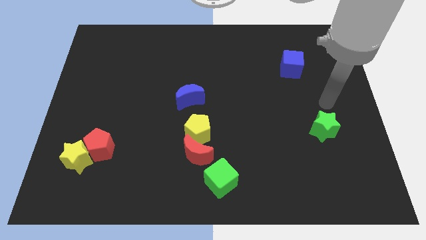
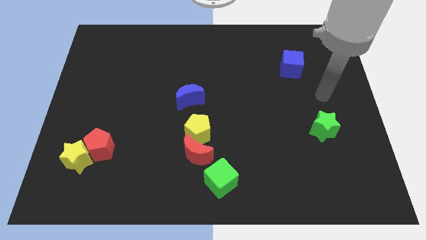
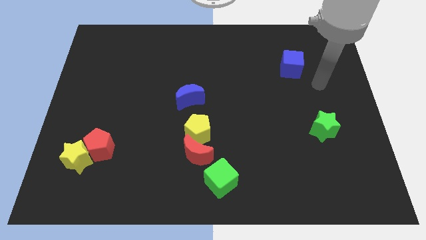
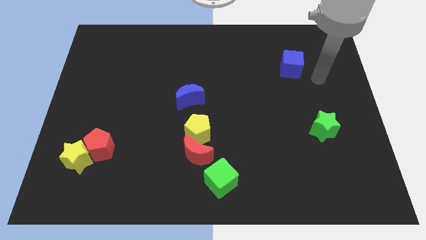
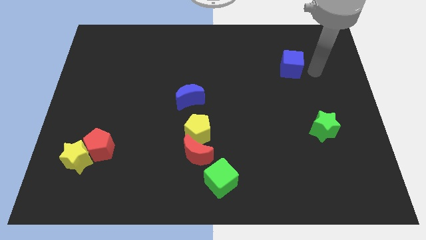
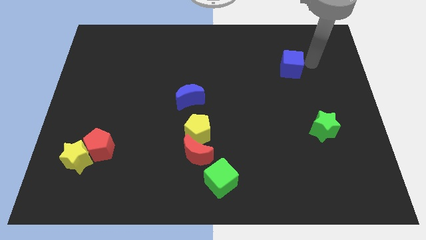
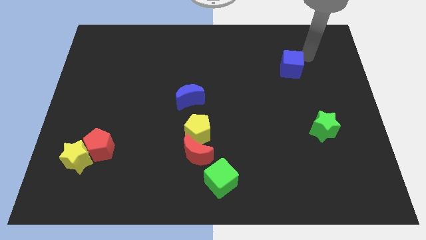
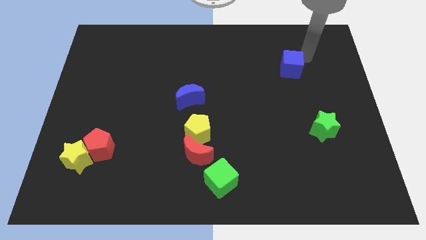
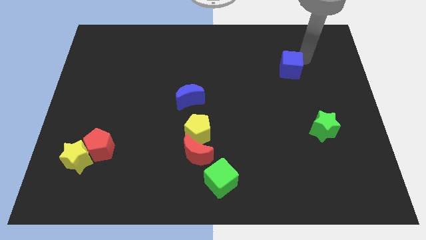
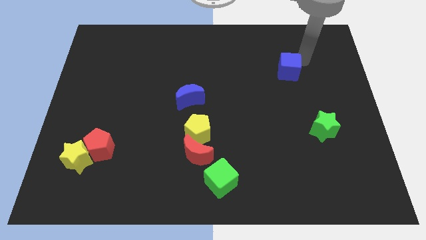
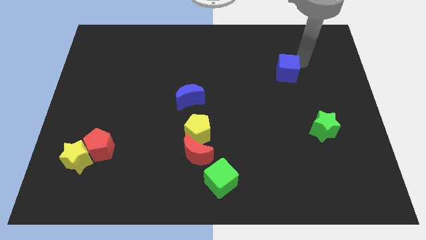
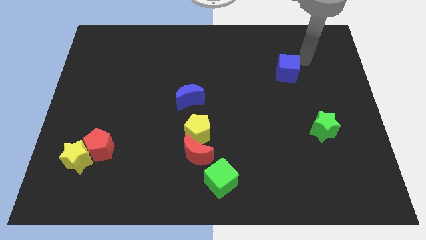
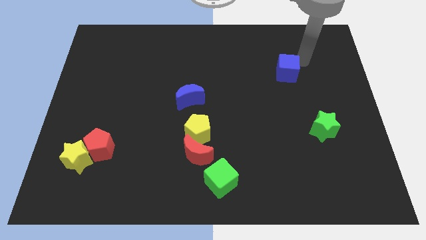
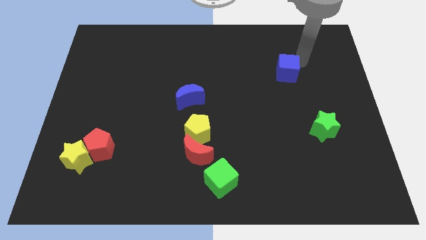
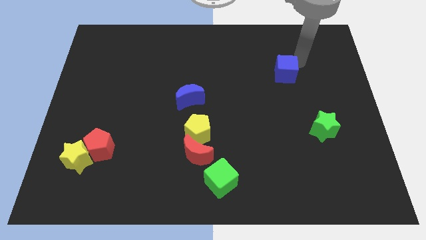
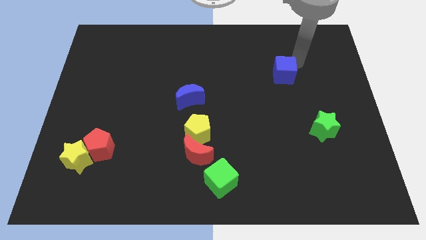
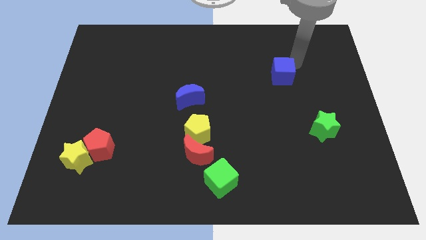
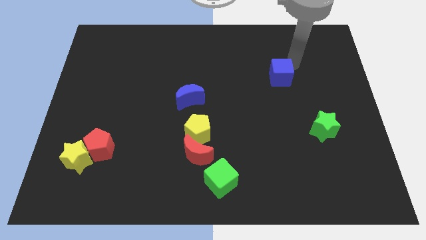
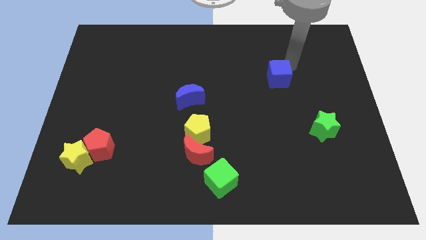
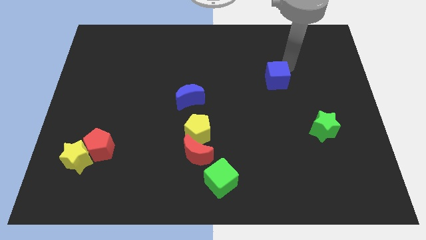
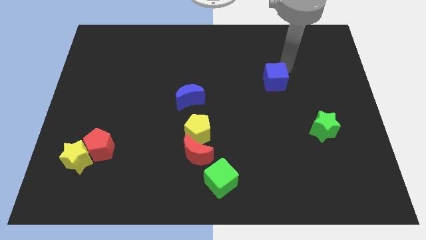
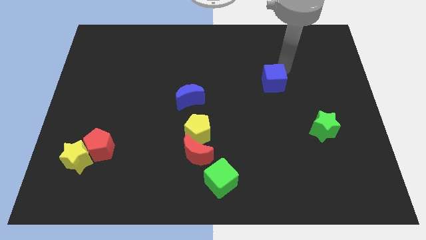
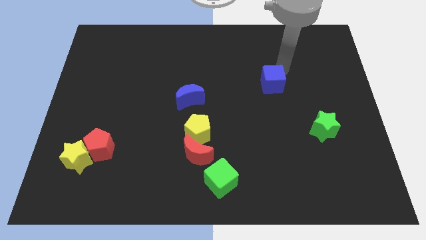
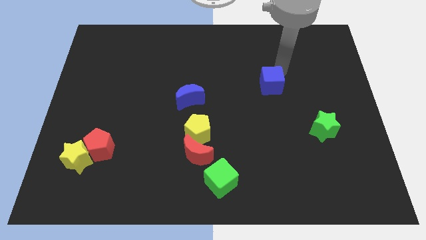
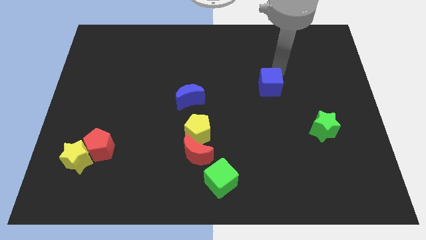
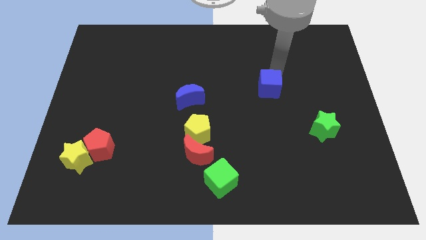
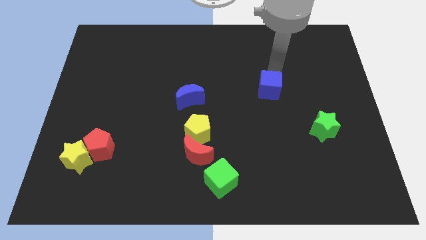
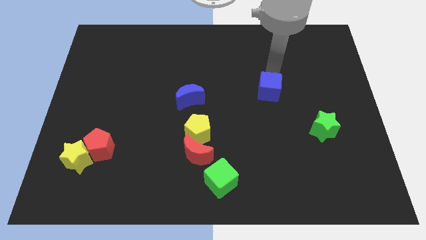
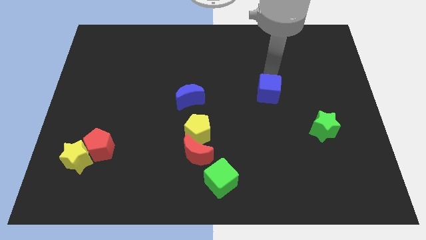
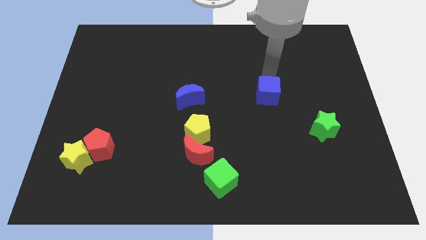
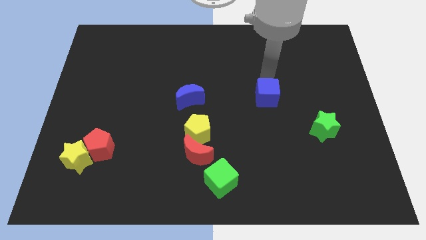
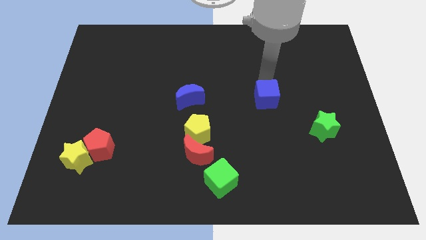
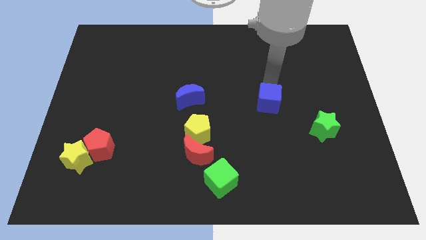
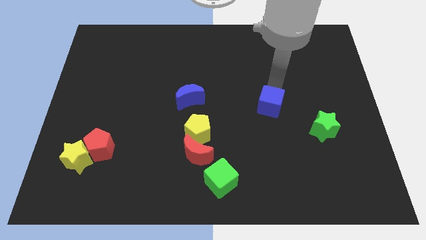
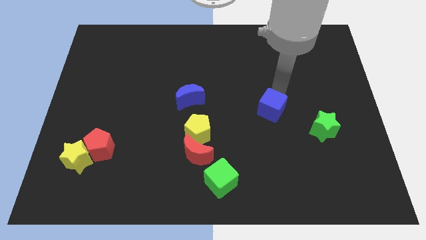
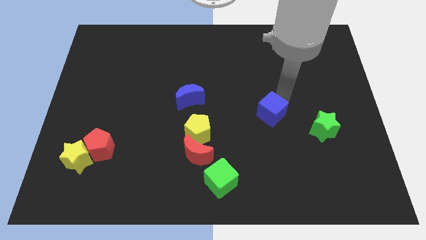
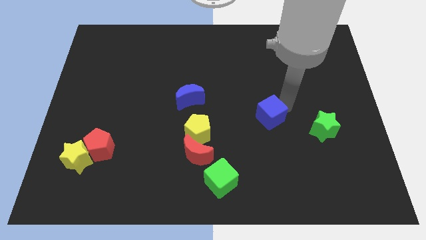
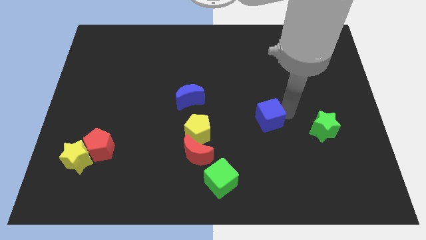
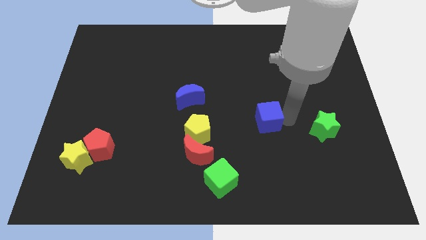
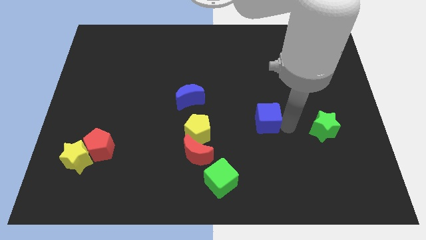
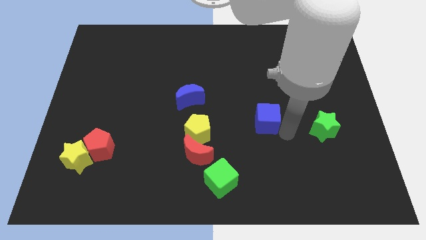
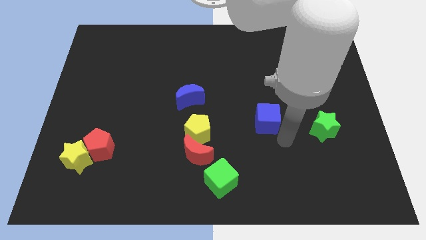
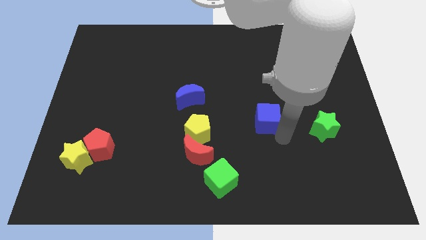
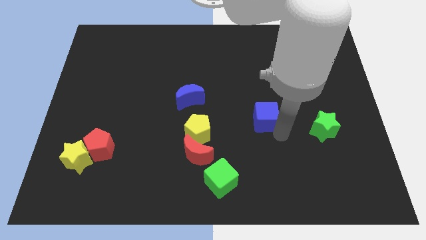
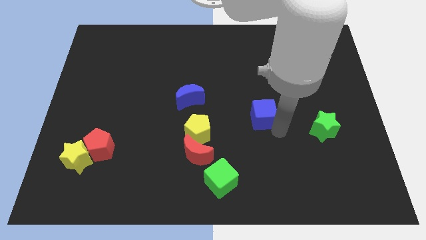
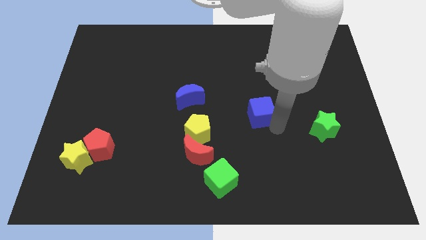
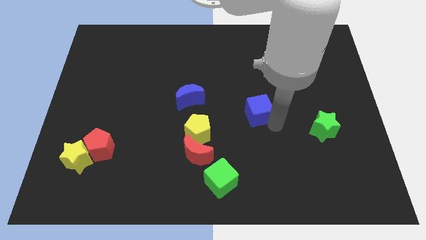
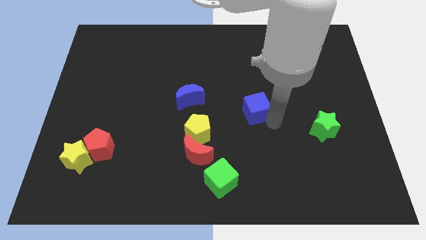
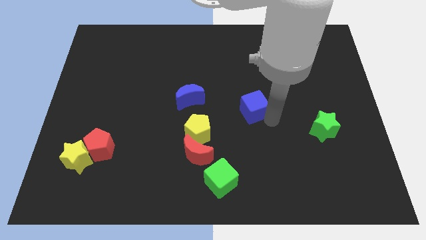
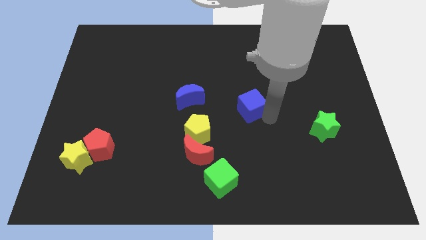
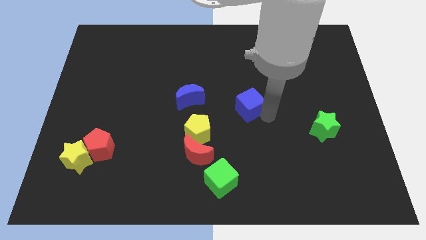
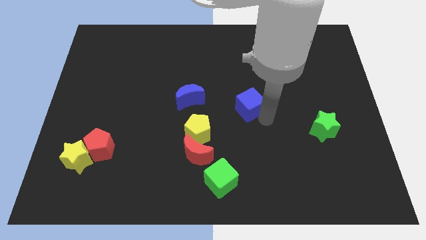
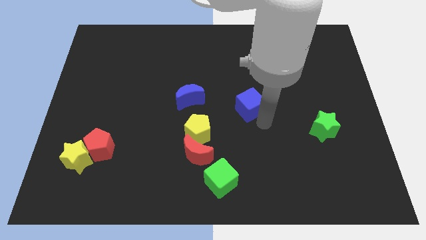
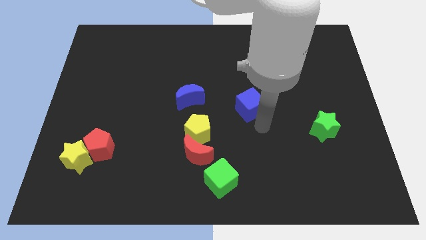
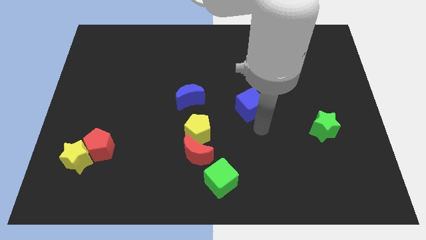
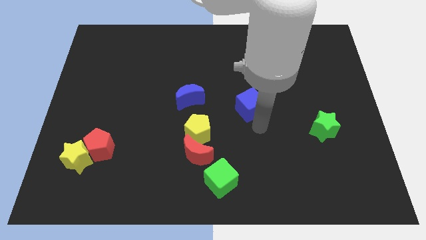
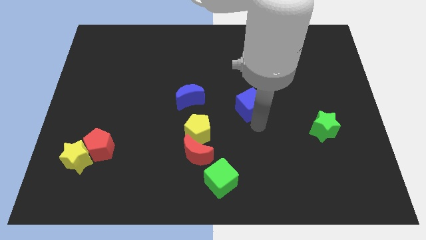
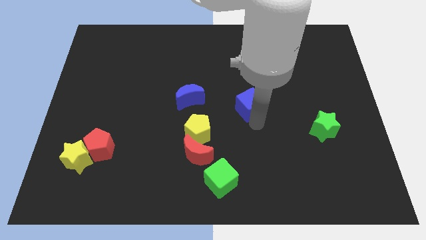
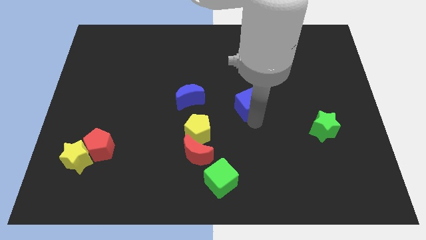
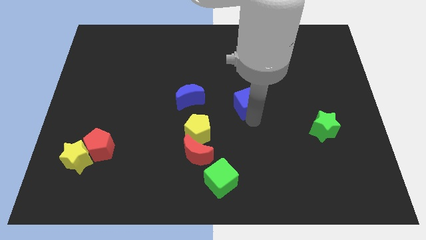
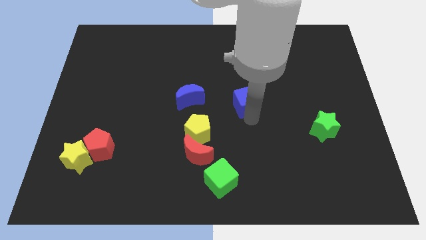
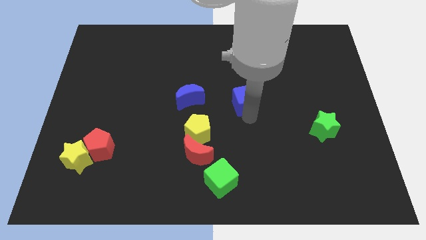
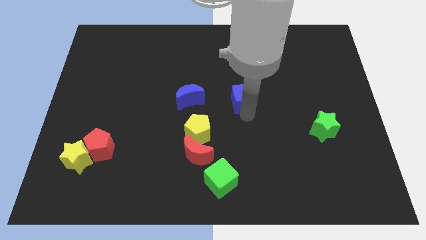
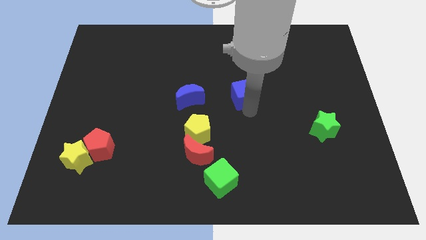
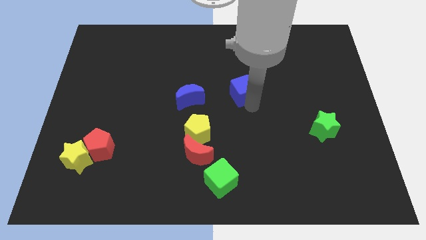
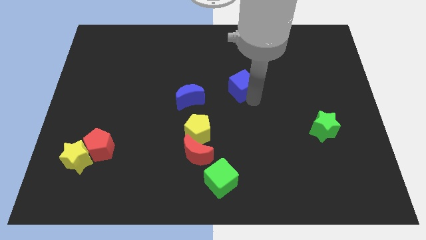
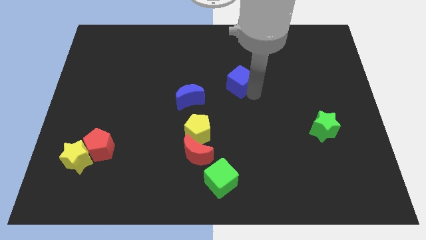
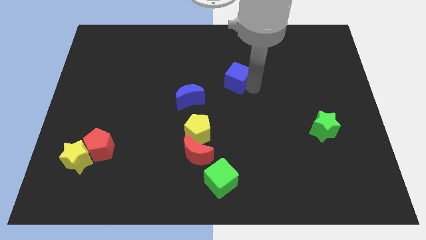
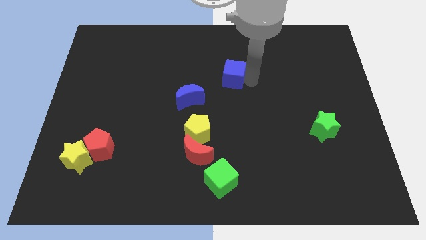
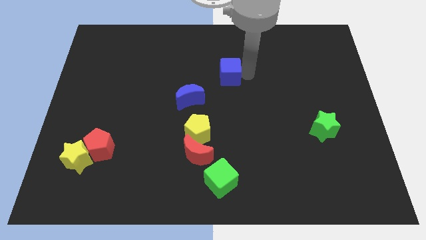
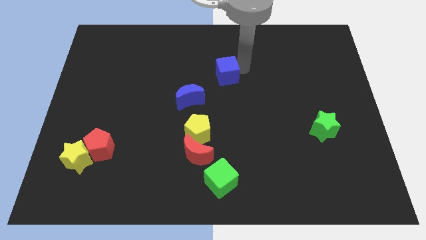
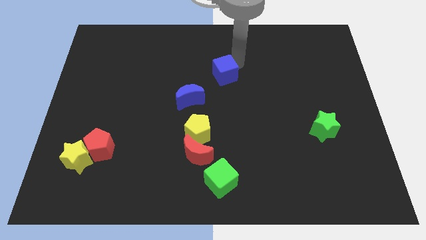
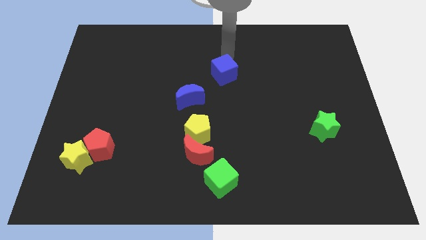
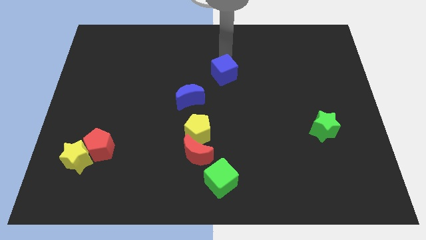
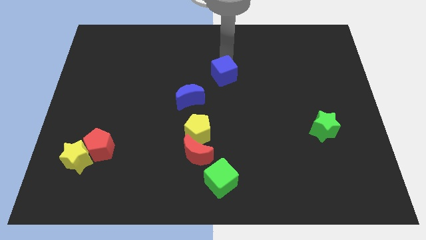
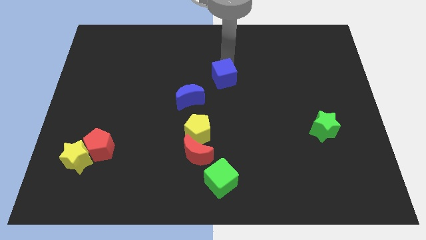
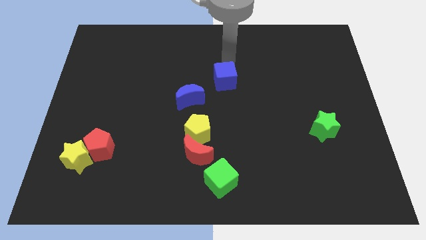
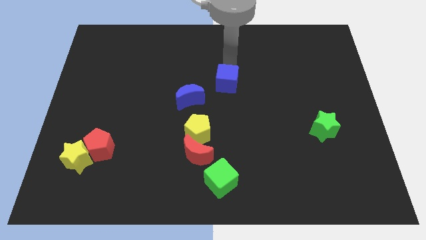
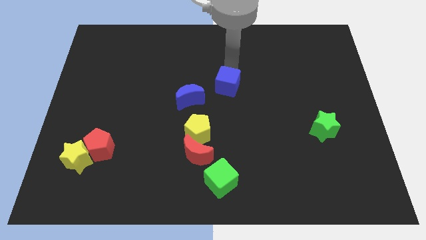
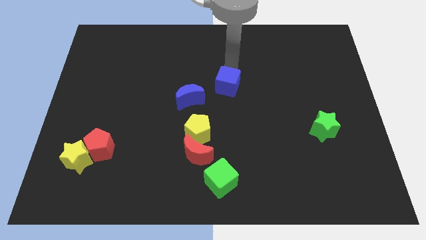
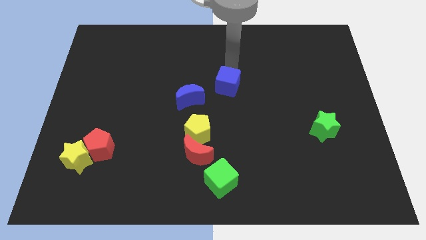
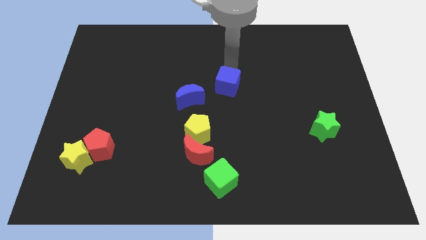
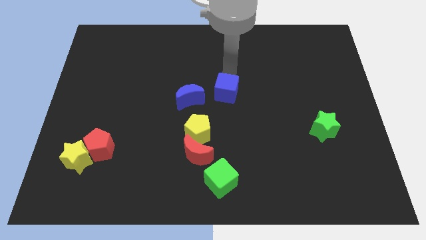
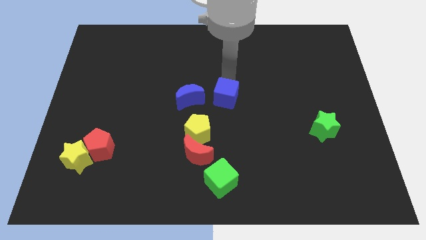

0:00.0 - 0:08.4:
move the blue cube to the top right of the yellow pentagon
